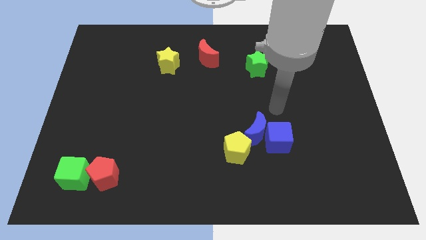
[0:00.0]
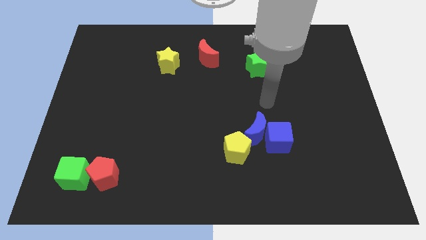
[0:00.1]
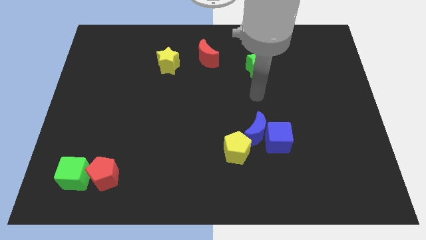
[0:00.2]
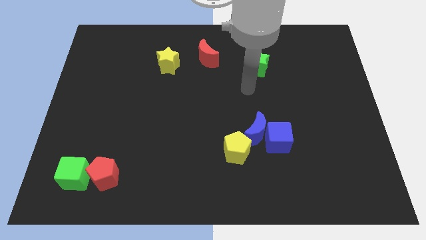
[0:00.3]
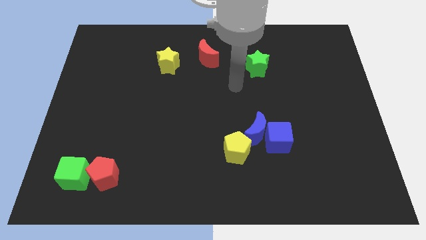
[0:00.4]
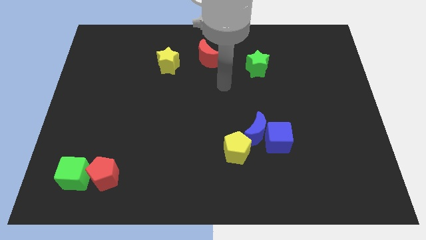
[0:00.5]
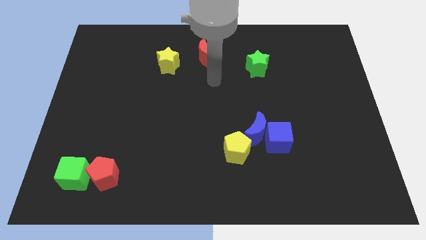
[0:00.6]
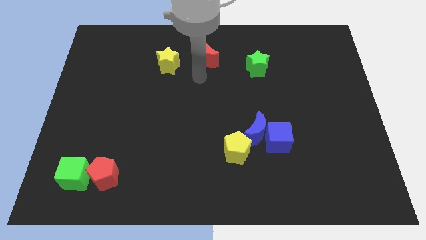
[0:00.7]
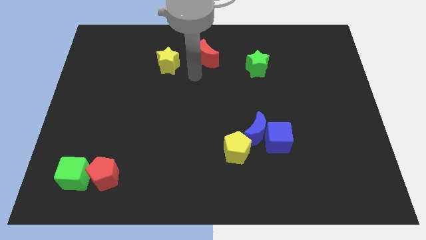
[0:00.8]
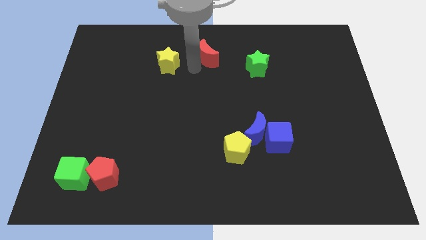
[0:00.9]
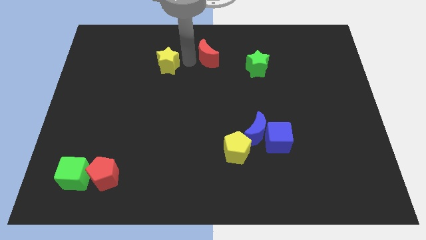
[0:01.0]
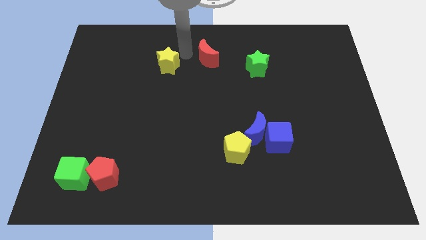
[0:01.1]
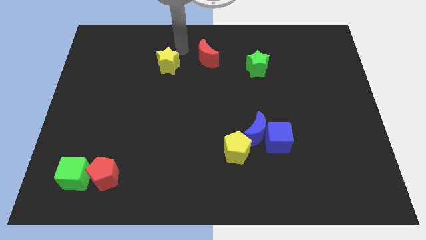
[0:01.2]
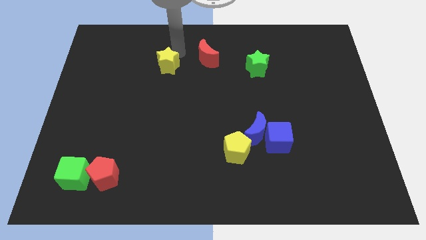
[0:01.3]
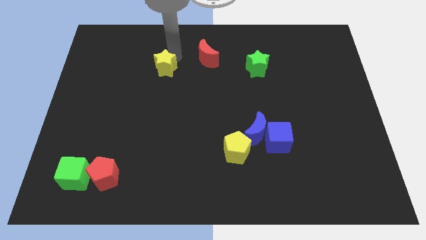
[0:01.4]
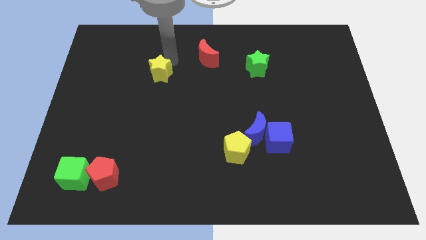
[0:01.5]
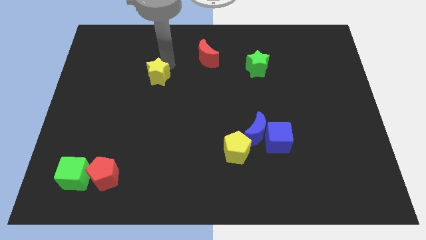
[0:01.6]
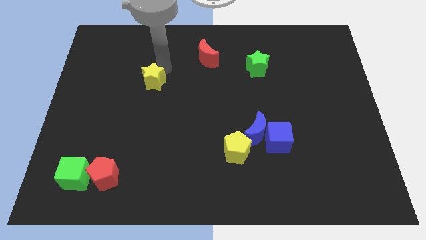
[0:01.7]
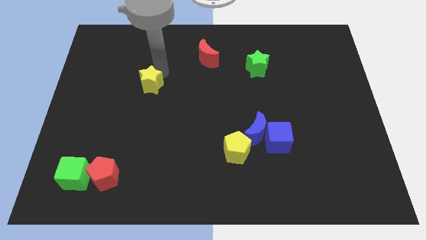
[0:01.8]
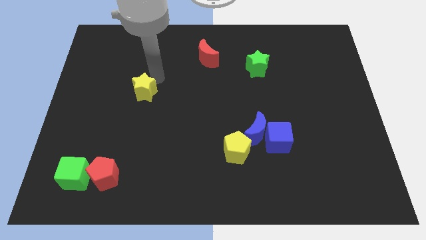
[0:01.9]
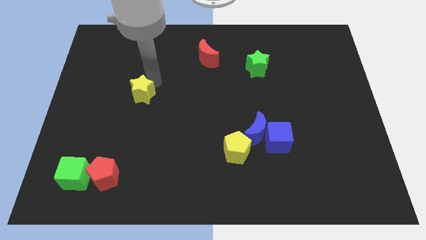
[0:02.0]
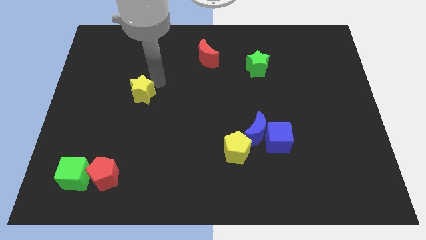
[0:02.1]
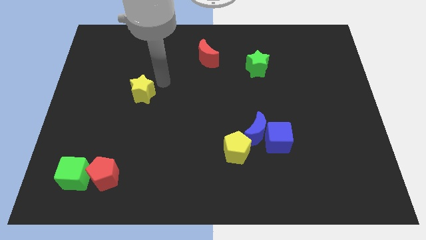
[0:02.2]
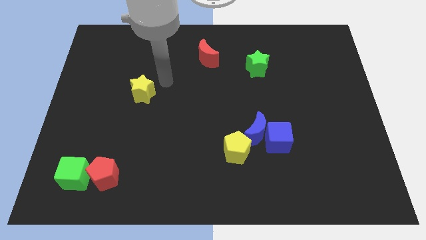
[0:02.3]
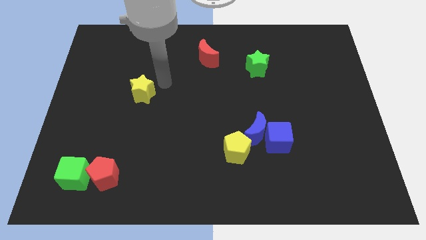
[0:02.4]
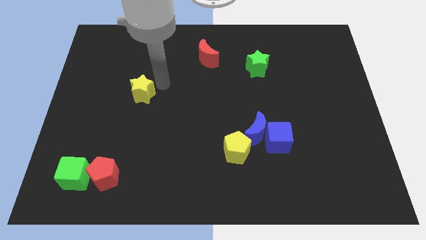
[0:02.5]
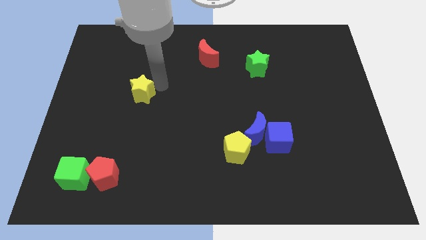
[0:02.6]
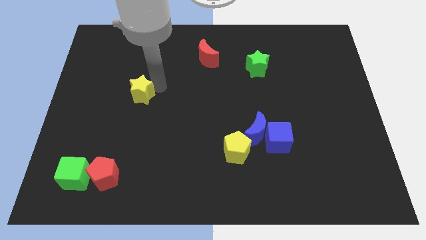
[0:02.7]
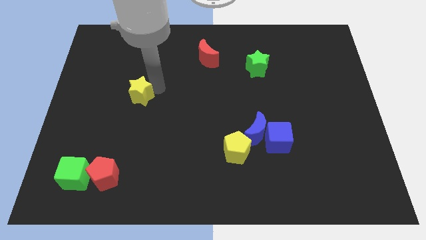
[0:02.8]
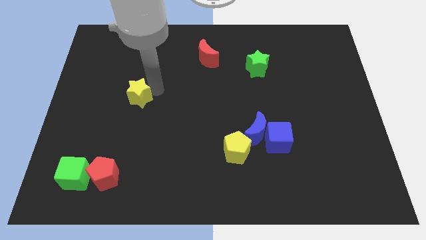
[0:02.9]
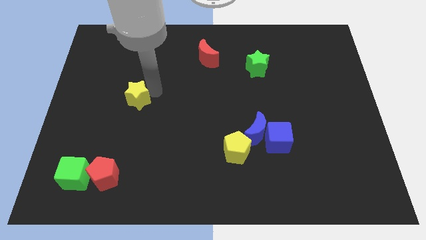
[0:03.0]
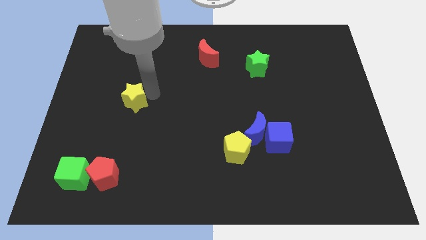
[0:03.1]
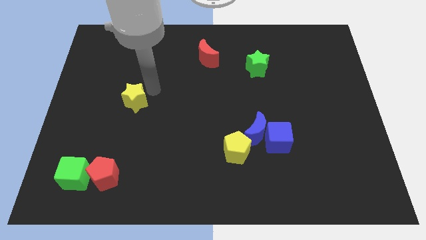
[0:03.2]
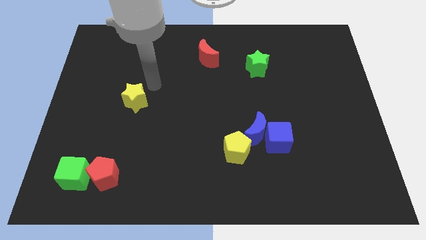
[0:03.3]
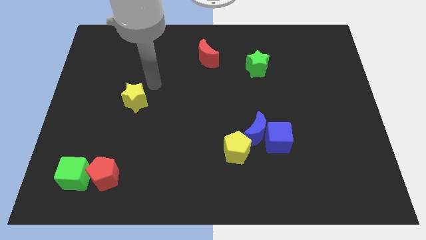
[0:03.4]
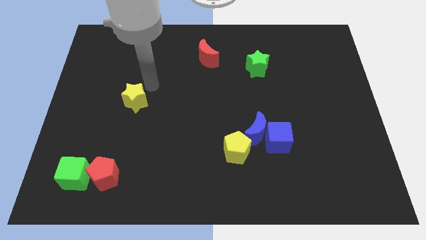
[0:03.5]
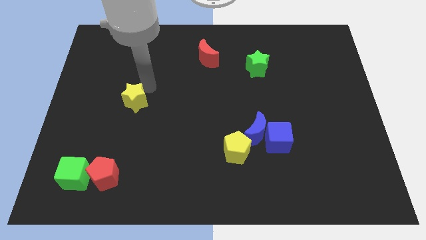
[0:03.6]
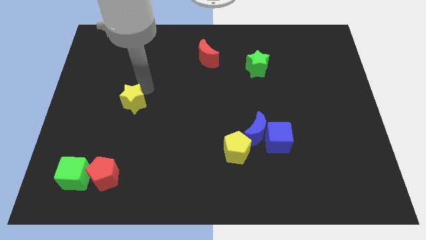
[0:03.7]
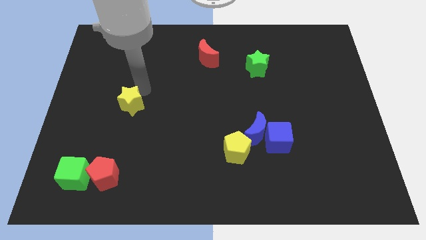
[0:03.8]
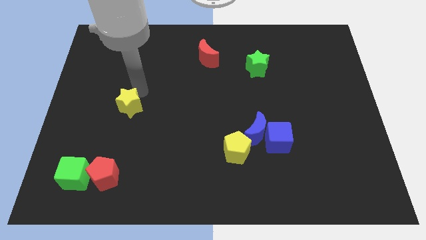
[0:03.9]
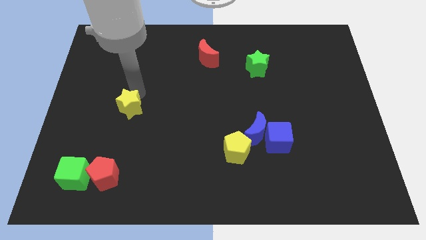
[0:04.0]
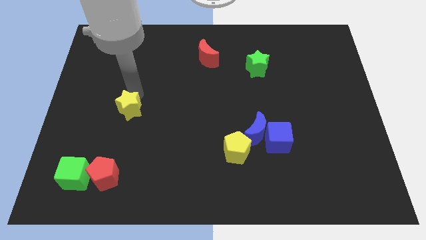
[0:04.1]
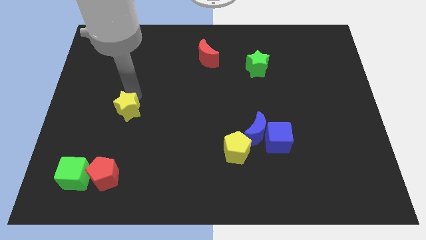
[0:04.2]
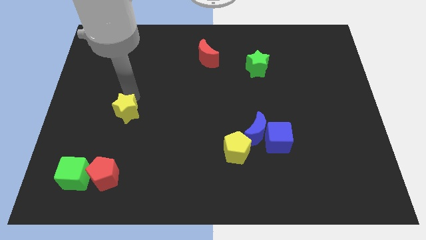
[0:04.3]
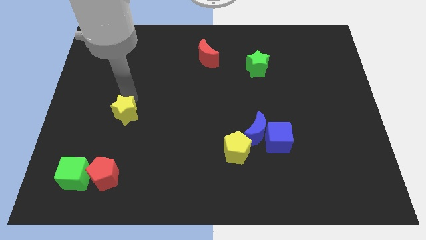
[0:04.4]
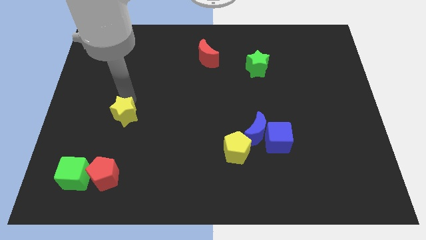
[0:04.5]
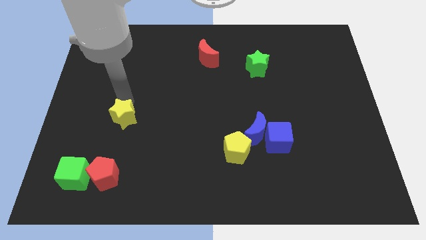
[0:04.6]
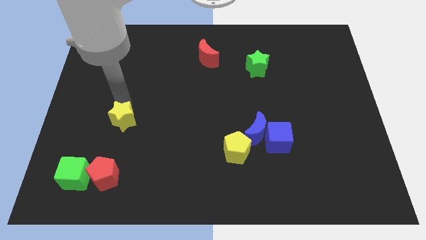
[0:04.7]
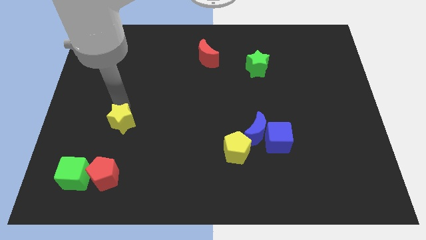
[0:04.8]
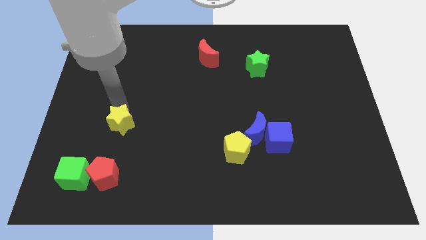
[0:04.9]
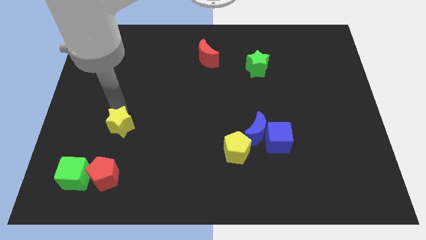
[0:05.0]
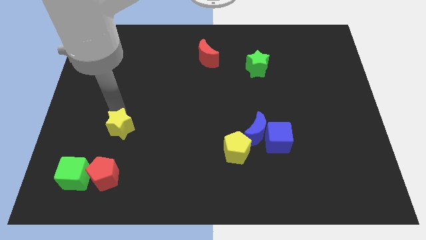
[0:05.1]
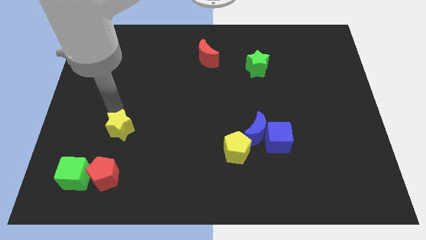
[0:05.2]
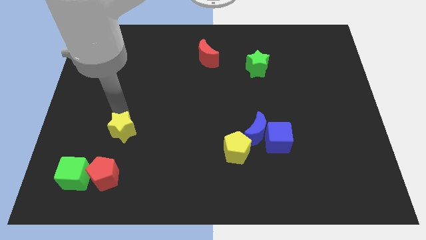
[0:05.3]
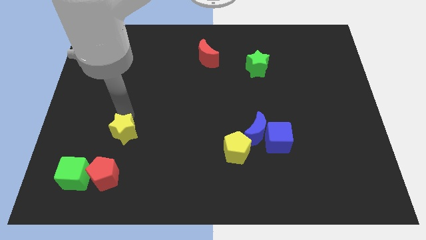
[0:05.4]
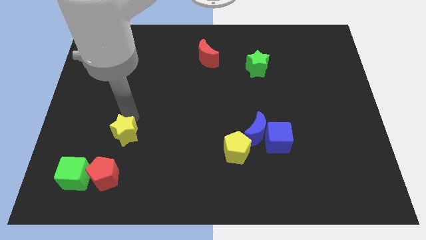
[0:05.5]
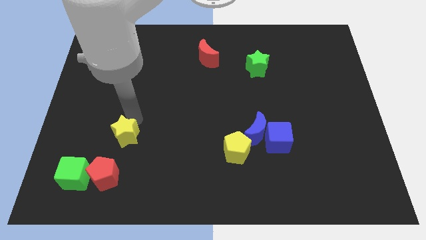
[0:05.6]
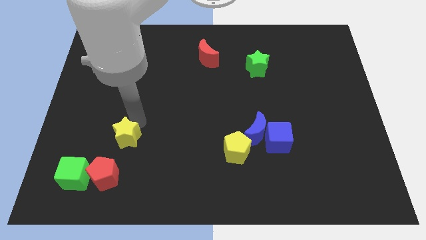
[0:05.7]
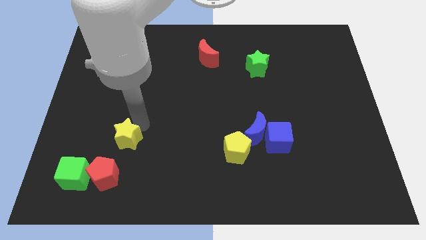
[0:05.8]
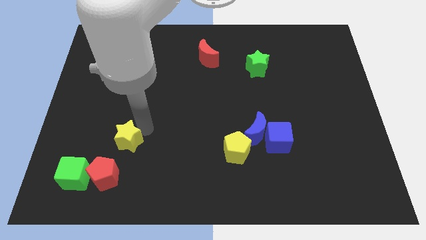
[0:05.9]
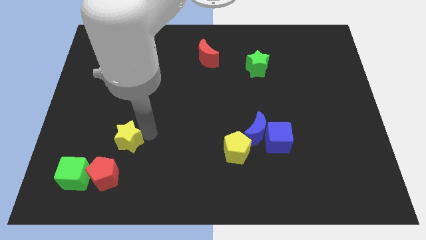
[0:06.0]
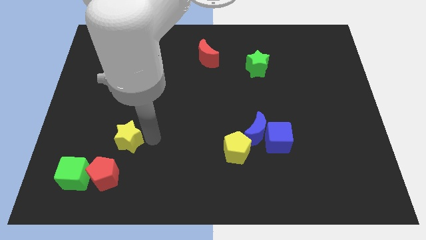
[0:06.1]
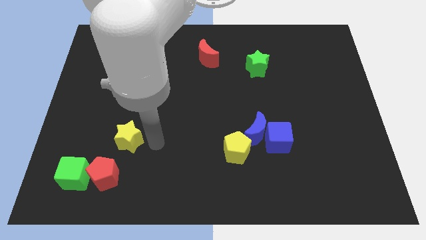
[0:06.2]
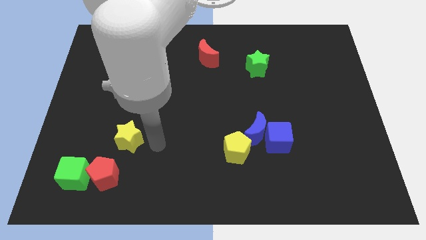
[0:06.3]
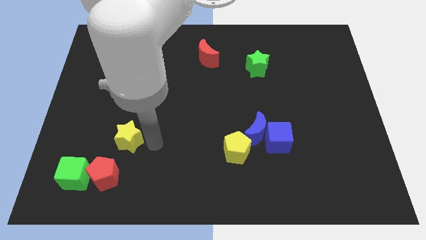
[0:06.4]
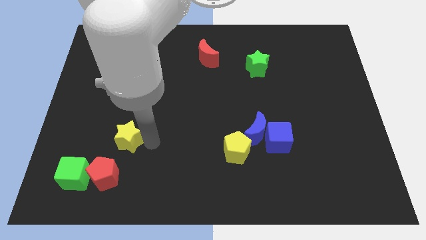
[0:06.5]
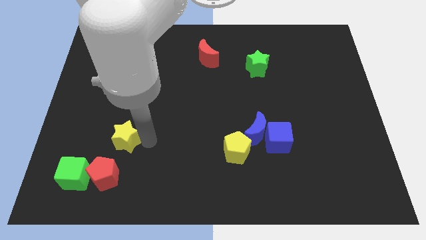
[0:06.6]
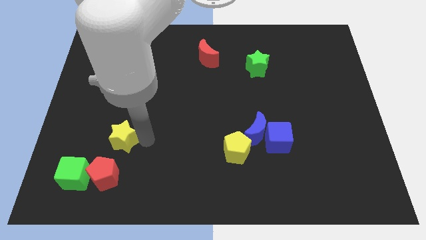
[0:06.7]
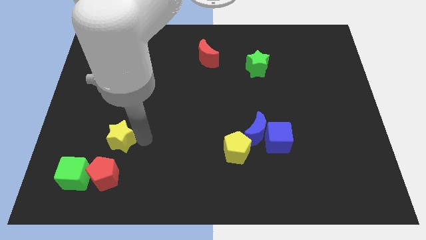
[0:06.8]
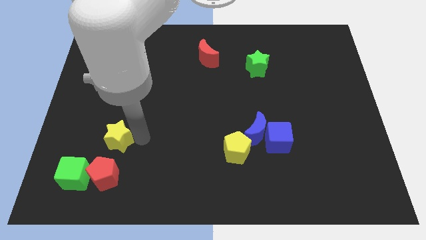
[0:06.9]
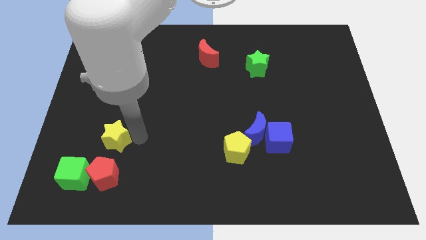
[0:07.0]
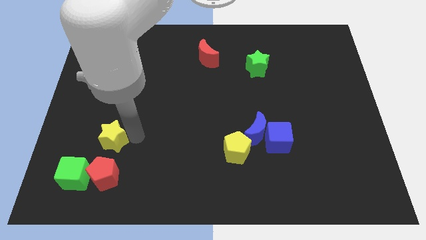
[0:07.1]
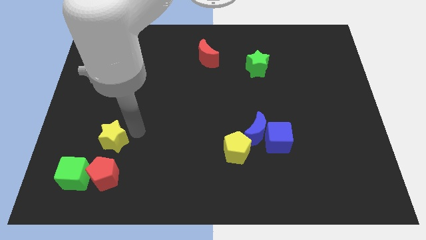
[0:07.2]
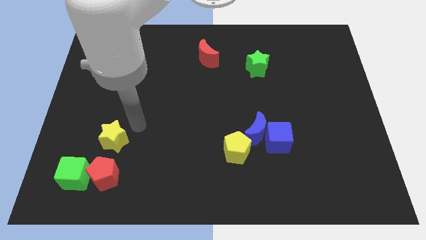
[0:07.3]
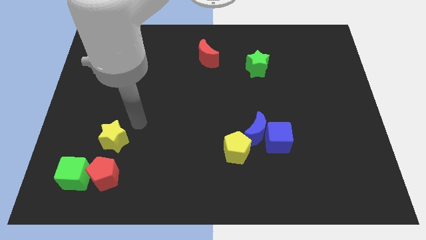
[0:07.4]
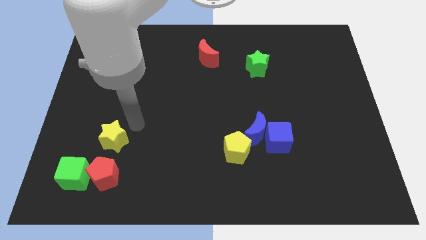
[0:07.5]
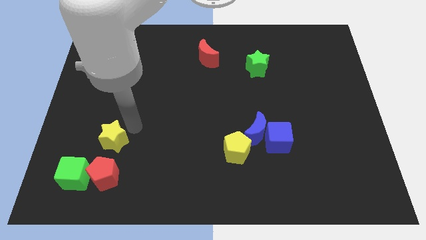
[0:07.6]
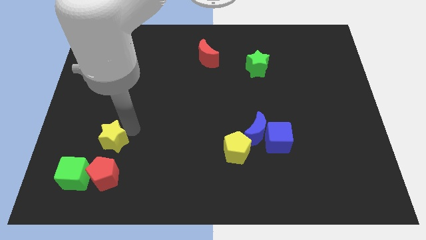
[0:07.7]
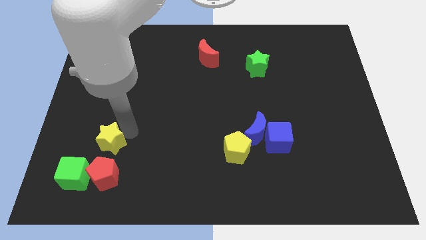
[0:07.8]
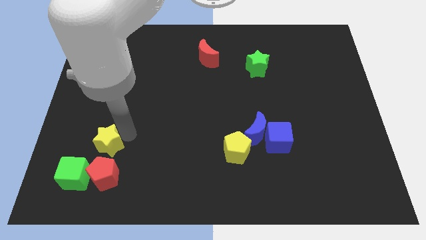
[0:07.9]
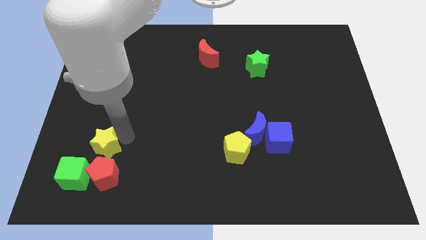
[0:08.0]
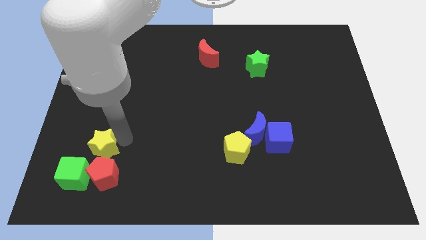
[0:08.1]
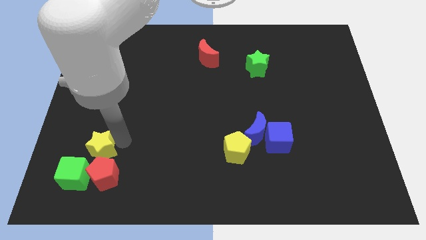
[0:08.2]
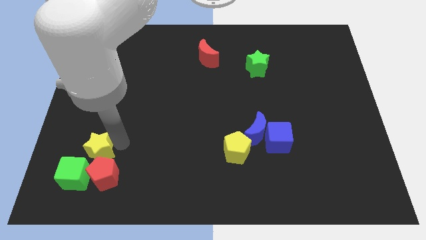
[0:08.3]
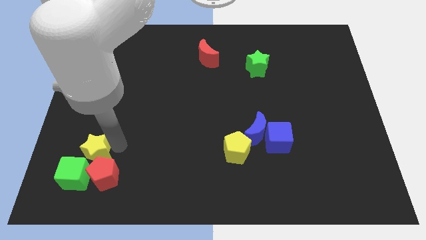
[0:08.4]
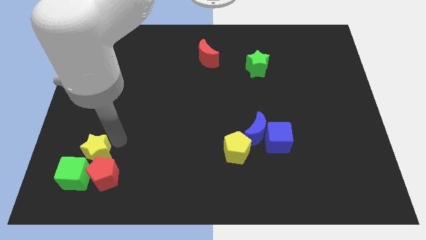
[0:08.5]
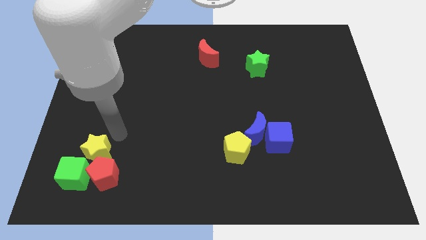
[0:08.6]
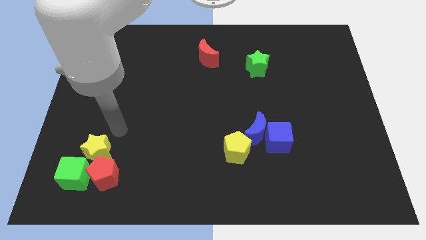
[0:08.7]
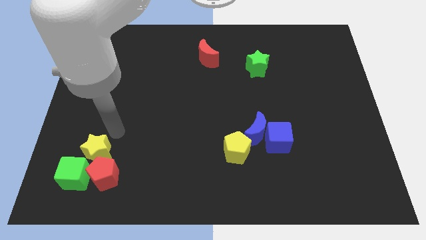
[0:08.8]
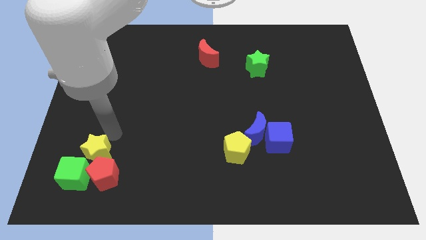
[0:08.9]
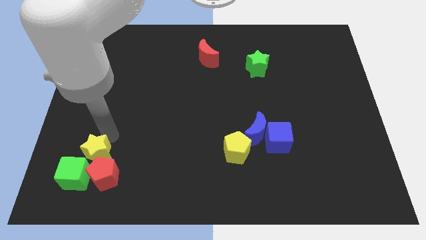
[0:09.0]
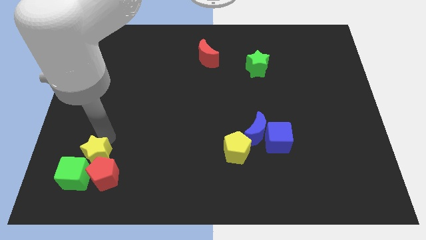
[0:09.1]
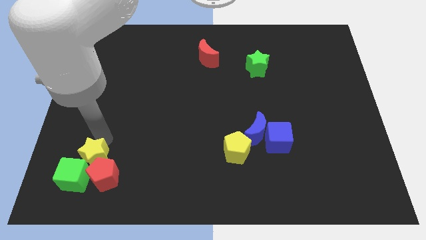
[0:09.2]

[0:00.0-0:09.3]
put the yellow star close to the green cube
